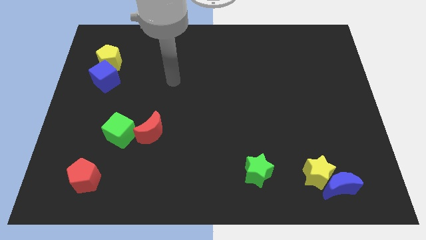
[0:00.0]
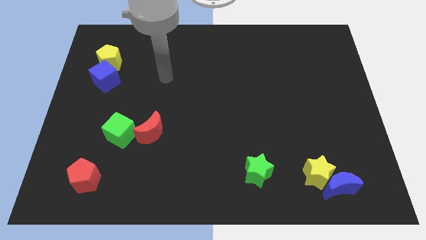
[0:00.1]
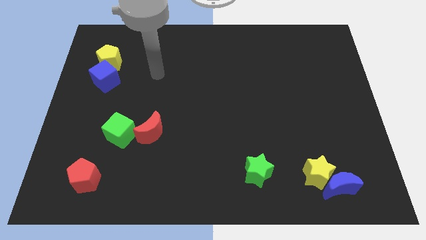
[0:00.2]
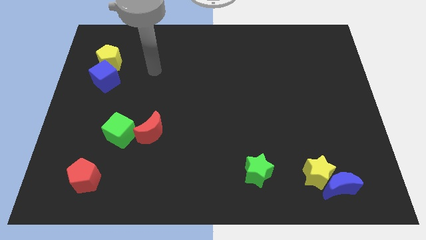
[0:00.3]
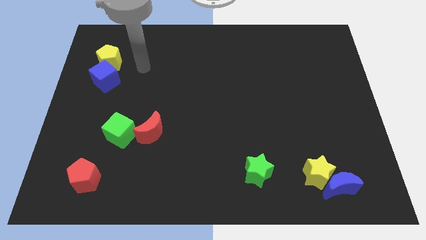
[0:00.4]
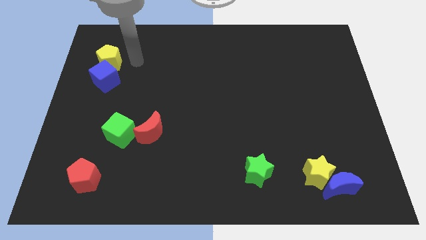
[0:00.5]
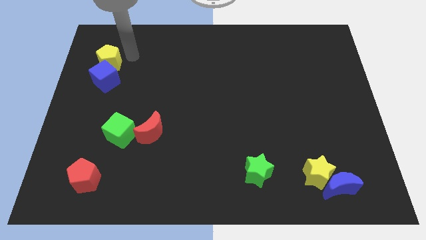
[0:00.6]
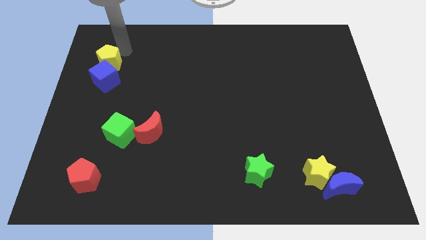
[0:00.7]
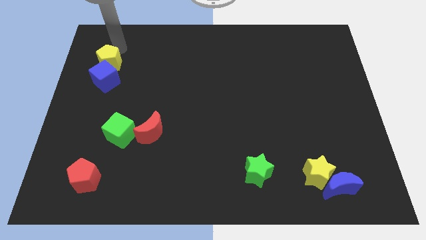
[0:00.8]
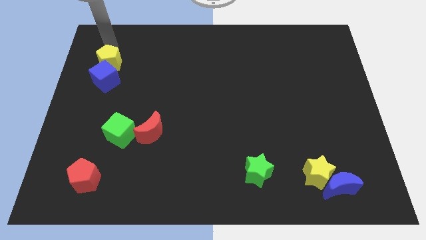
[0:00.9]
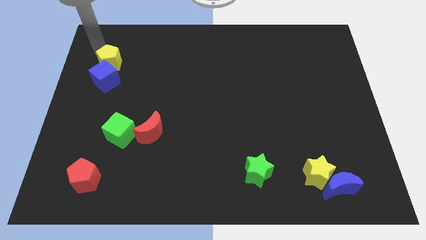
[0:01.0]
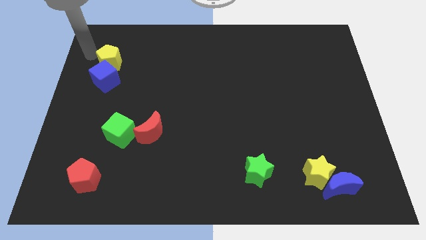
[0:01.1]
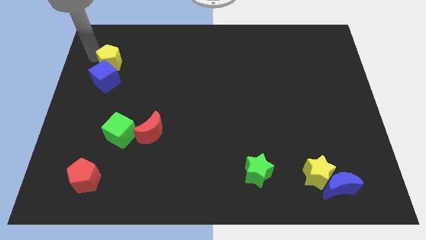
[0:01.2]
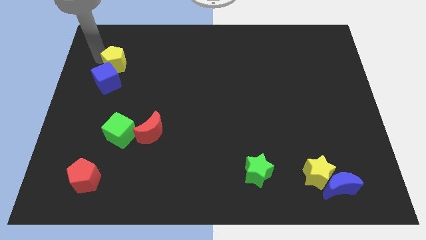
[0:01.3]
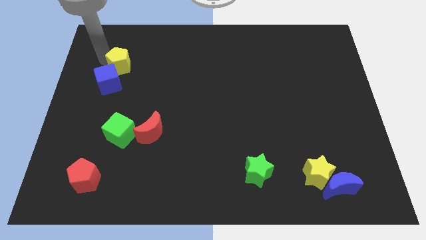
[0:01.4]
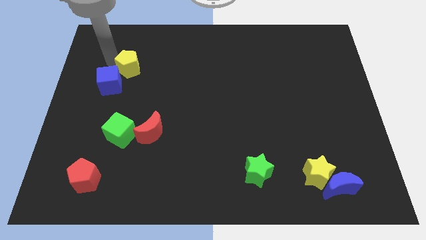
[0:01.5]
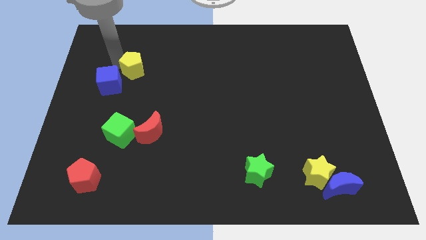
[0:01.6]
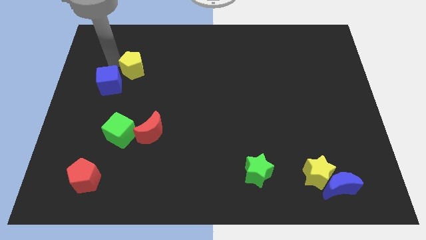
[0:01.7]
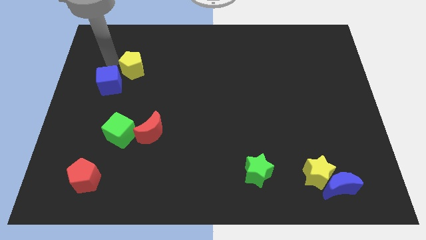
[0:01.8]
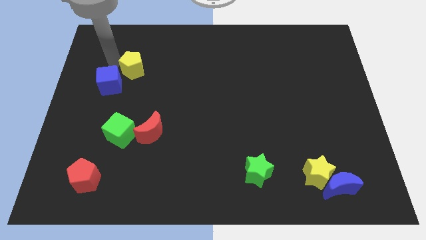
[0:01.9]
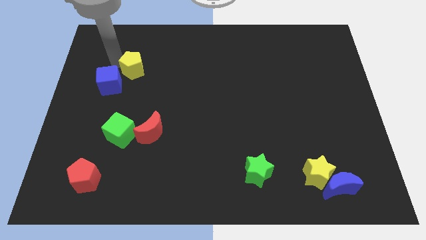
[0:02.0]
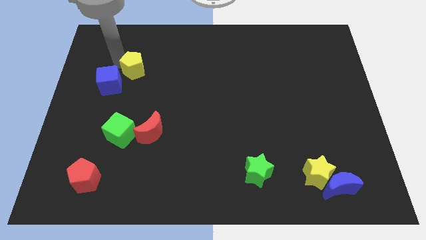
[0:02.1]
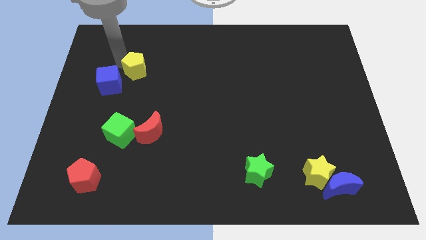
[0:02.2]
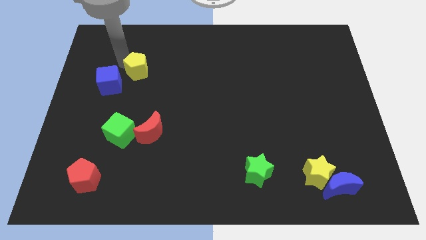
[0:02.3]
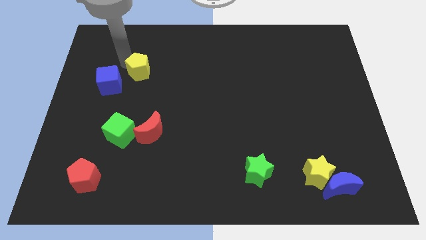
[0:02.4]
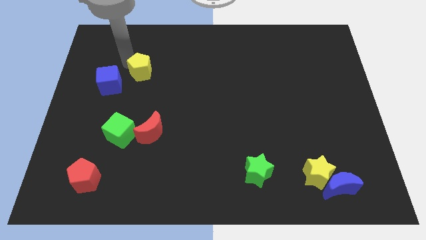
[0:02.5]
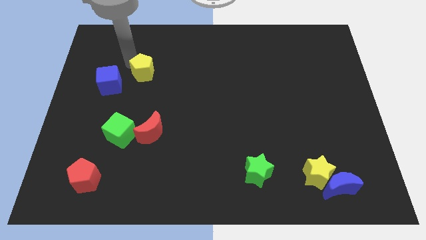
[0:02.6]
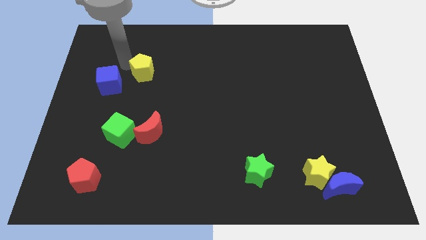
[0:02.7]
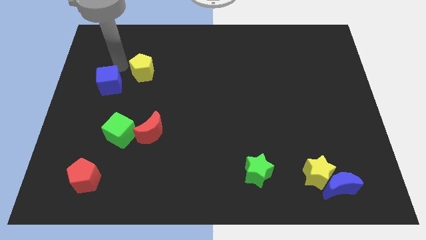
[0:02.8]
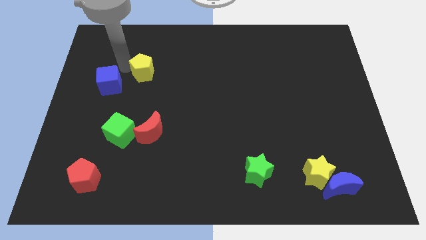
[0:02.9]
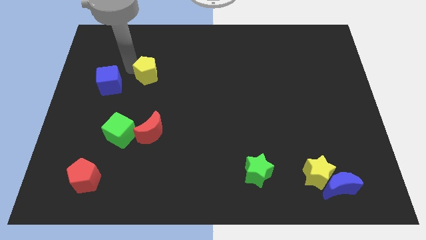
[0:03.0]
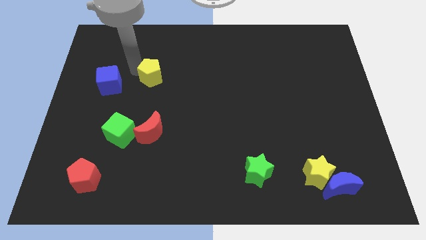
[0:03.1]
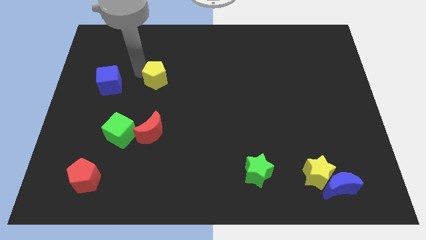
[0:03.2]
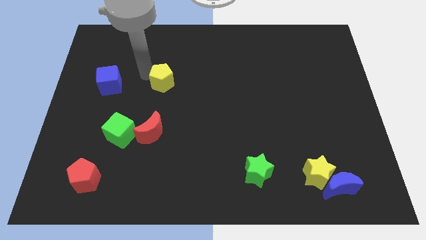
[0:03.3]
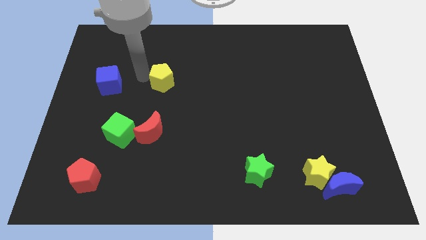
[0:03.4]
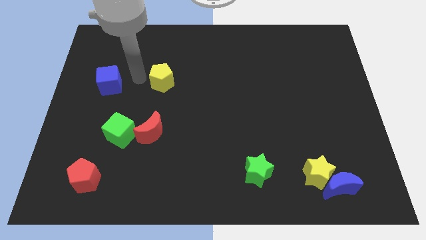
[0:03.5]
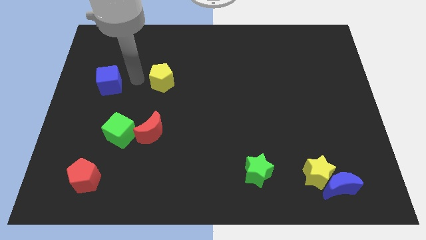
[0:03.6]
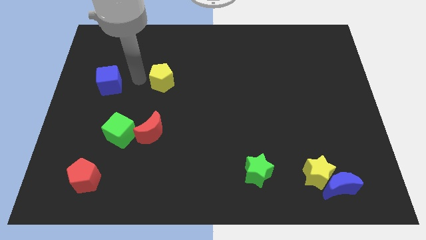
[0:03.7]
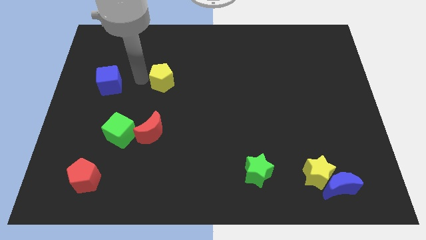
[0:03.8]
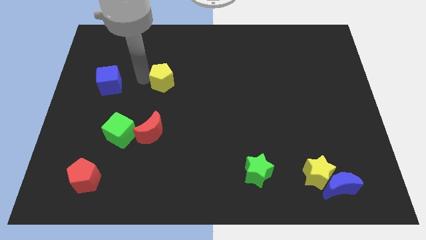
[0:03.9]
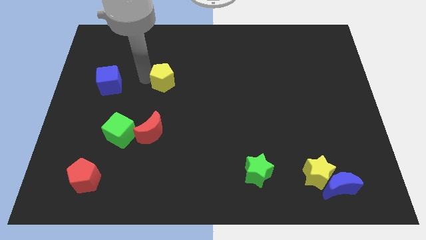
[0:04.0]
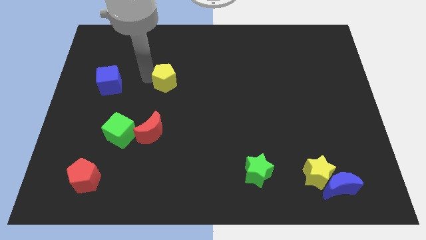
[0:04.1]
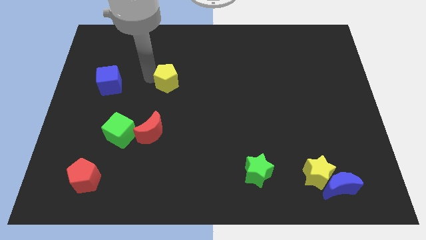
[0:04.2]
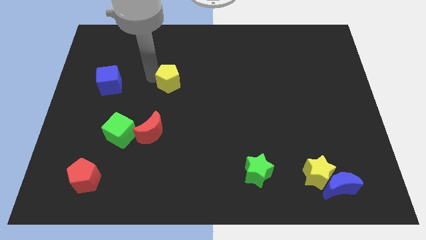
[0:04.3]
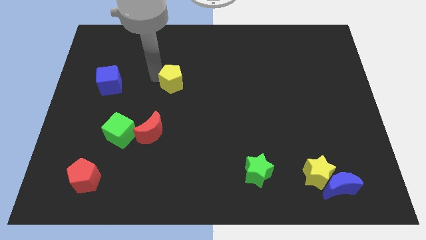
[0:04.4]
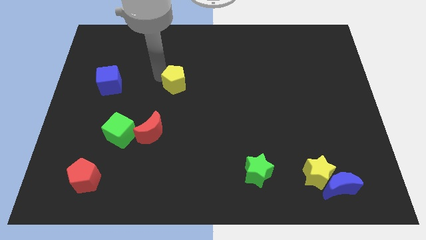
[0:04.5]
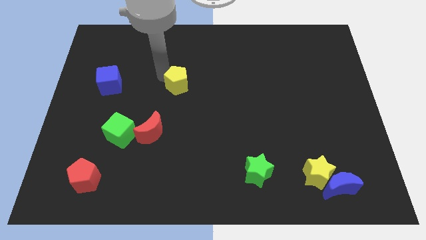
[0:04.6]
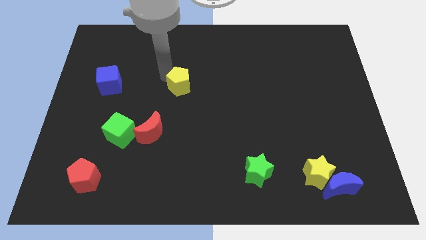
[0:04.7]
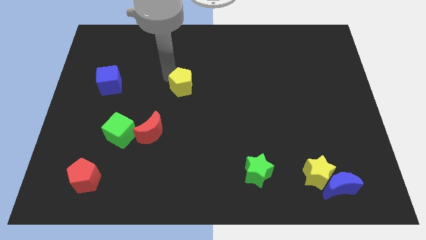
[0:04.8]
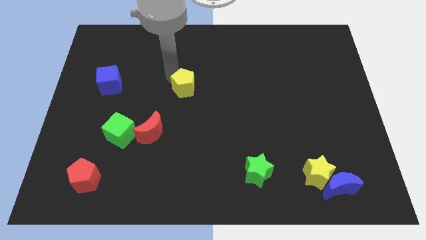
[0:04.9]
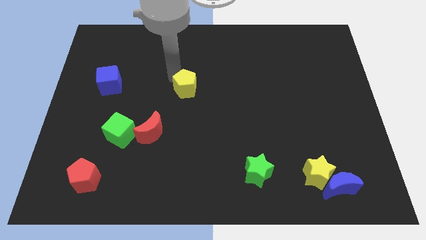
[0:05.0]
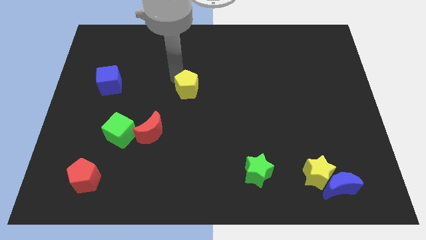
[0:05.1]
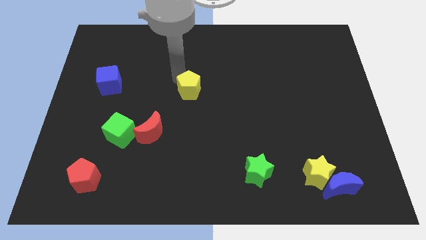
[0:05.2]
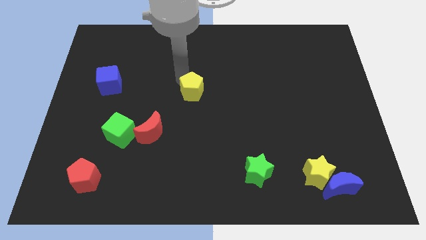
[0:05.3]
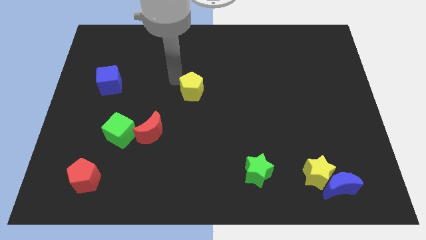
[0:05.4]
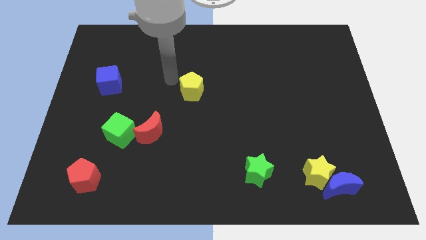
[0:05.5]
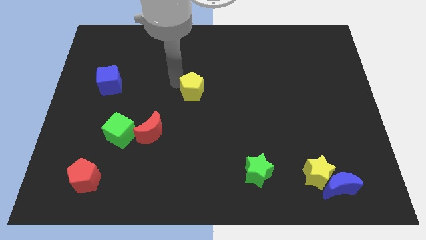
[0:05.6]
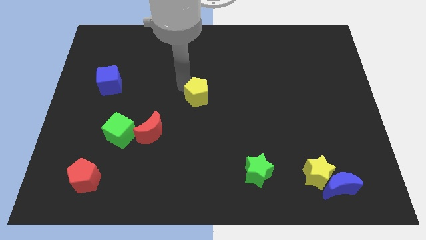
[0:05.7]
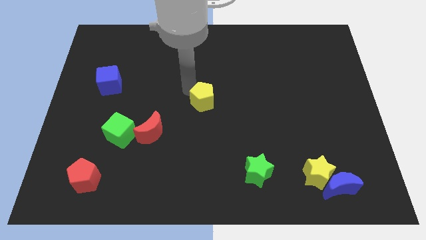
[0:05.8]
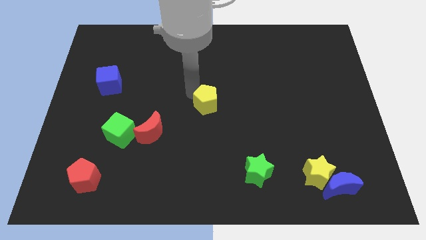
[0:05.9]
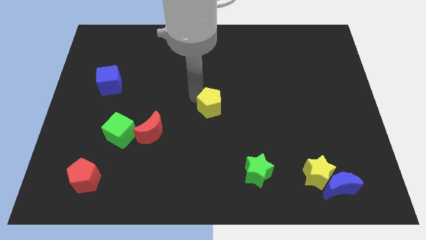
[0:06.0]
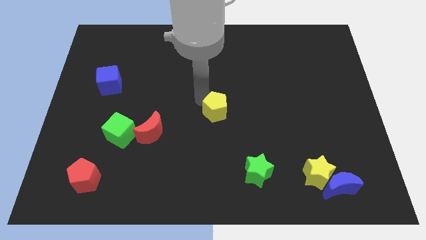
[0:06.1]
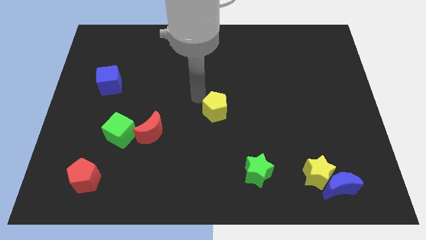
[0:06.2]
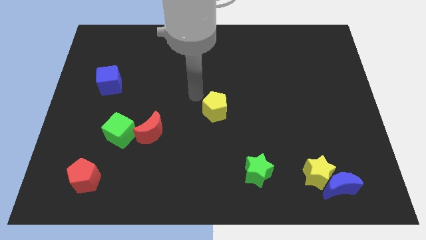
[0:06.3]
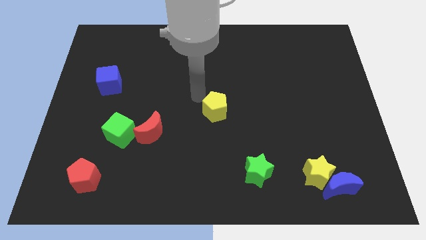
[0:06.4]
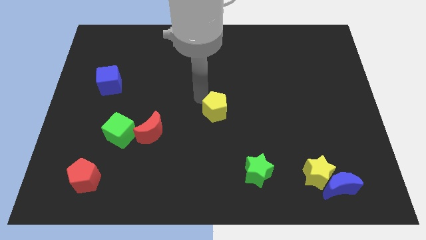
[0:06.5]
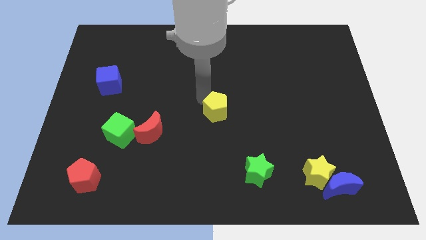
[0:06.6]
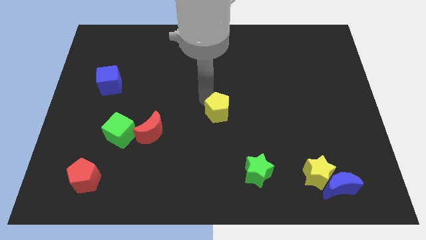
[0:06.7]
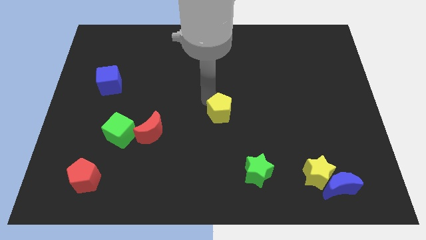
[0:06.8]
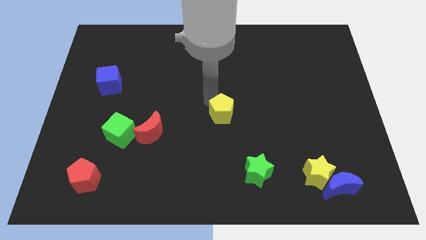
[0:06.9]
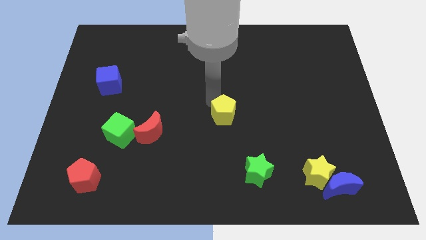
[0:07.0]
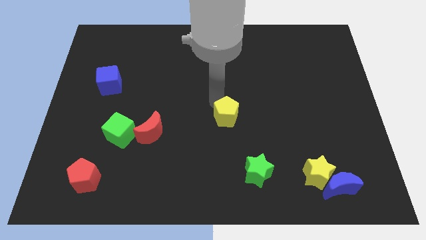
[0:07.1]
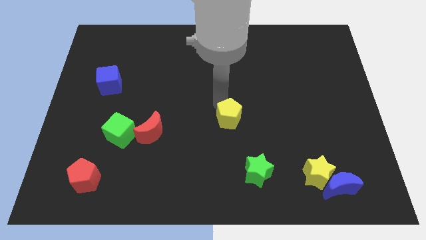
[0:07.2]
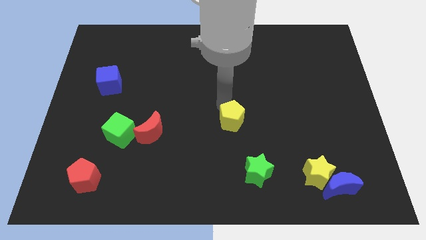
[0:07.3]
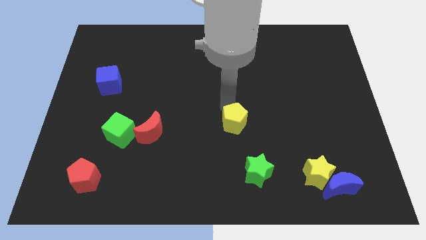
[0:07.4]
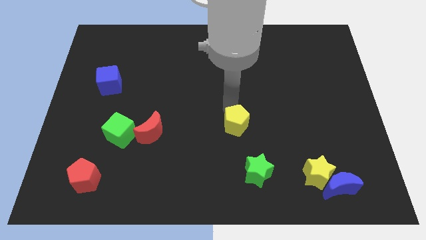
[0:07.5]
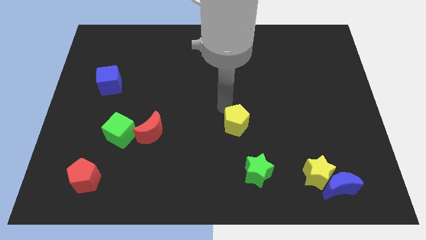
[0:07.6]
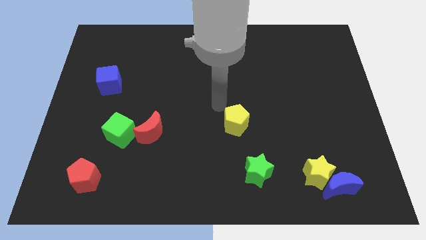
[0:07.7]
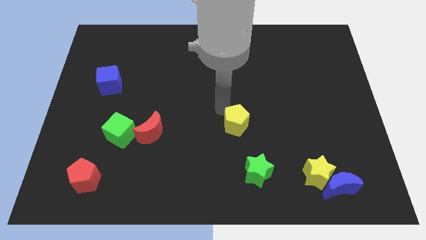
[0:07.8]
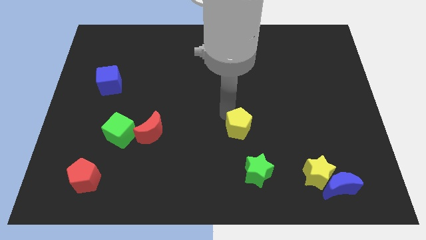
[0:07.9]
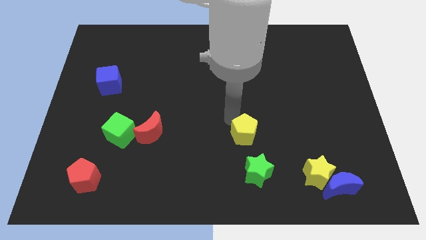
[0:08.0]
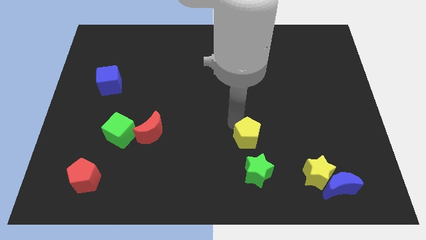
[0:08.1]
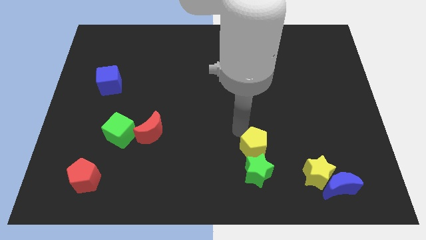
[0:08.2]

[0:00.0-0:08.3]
move the yellow pentagon diagonally up and to the right of the green star
